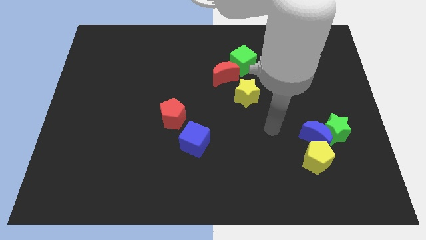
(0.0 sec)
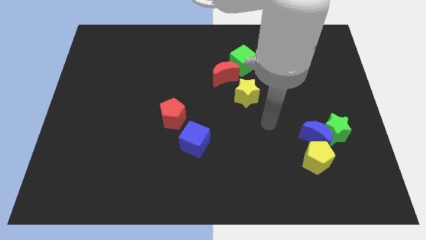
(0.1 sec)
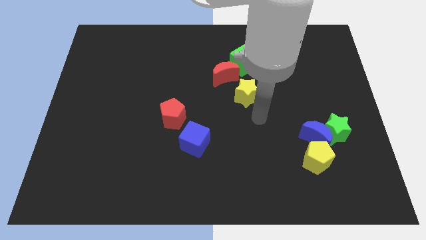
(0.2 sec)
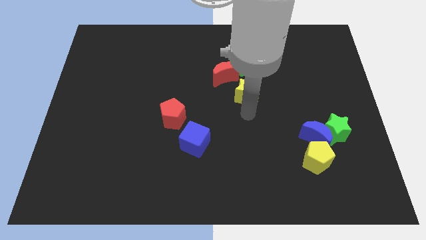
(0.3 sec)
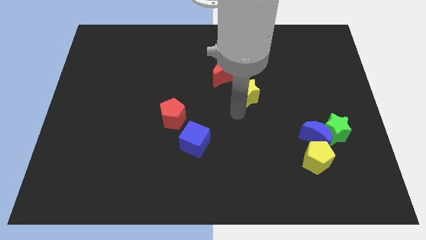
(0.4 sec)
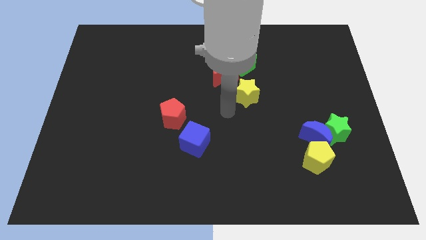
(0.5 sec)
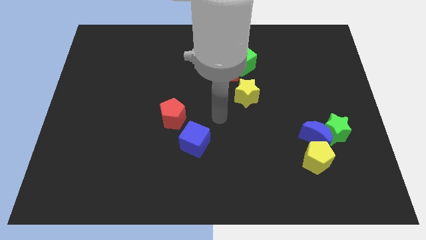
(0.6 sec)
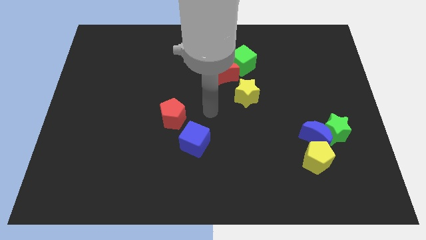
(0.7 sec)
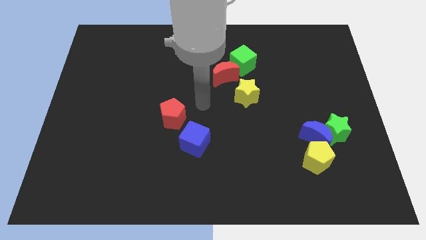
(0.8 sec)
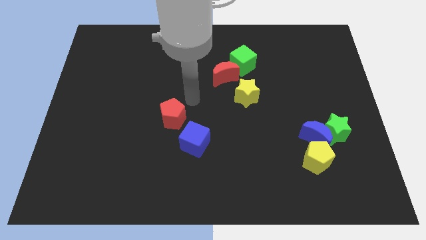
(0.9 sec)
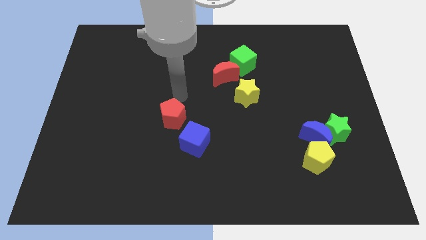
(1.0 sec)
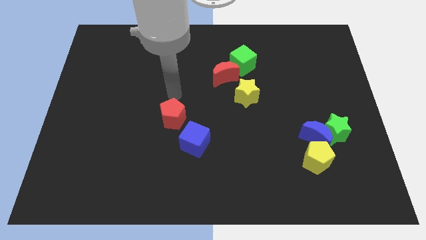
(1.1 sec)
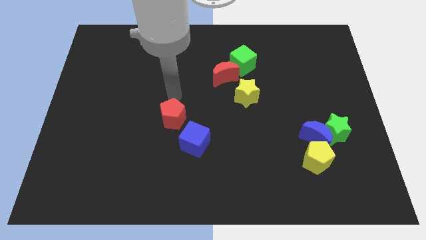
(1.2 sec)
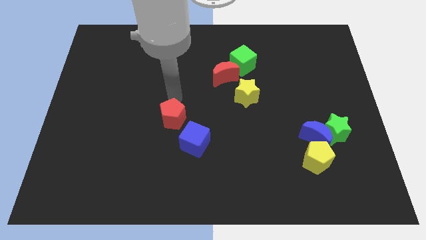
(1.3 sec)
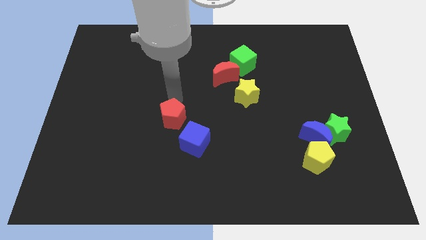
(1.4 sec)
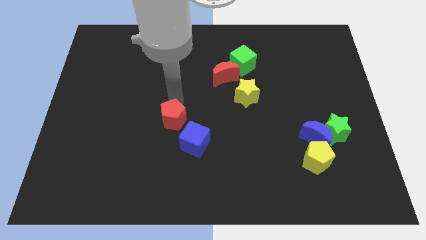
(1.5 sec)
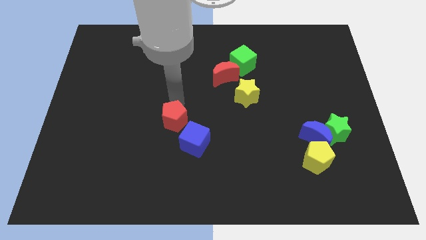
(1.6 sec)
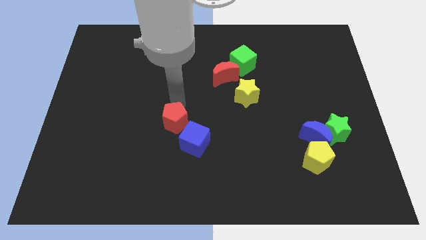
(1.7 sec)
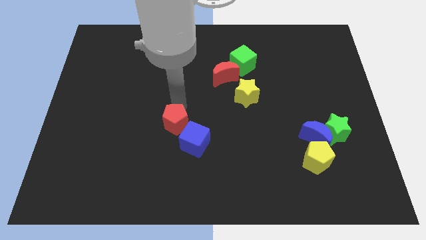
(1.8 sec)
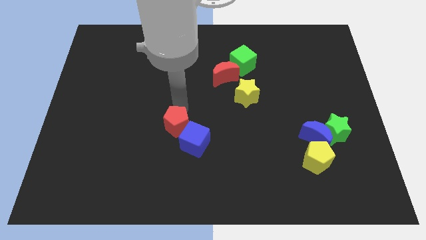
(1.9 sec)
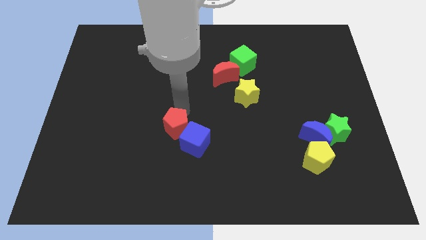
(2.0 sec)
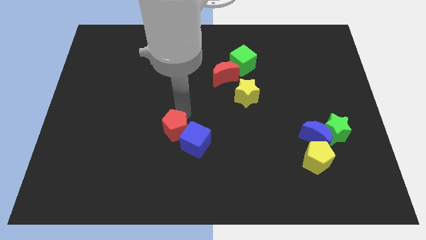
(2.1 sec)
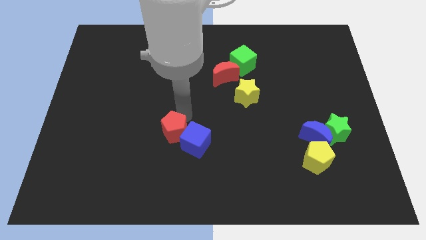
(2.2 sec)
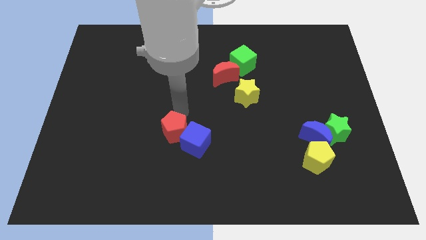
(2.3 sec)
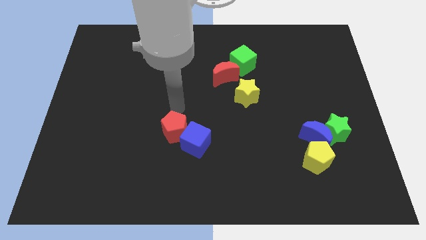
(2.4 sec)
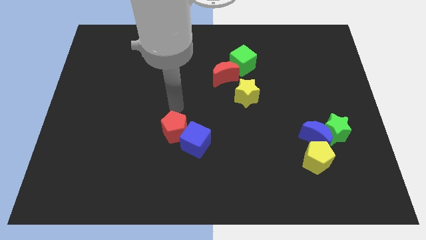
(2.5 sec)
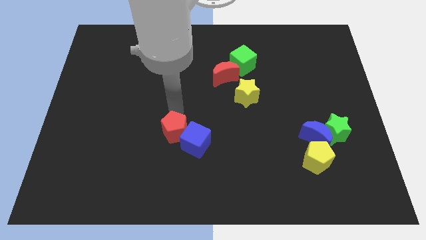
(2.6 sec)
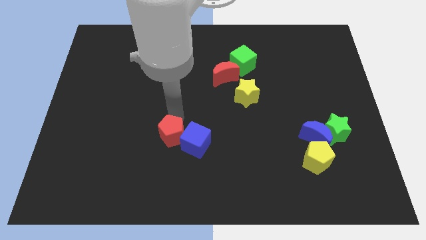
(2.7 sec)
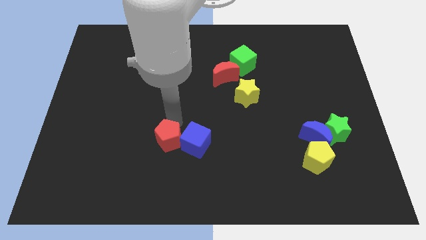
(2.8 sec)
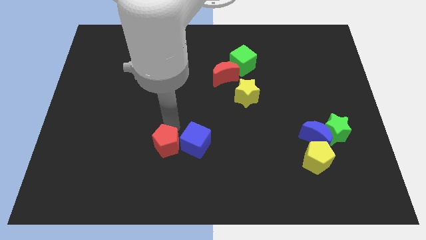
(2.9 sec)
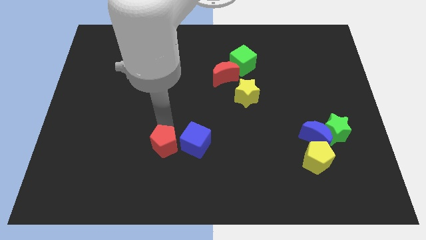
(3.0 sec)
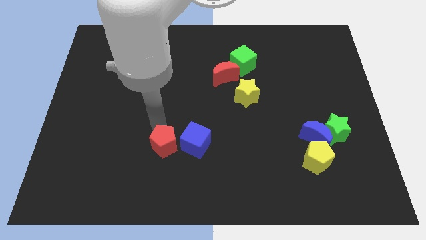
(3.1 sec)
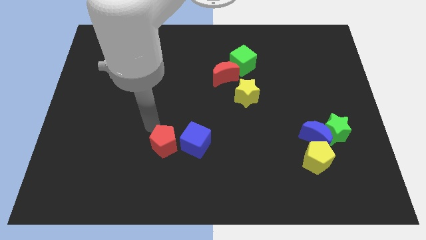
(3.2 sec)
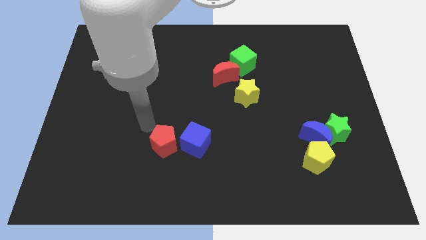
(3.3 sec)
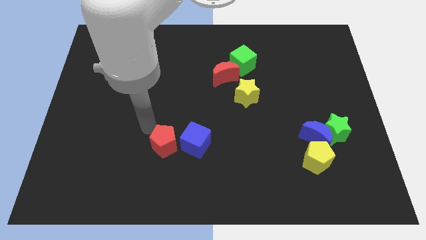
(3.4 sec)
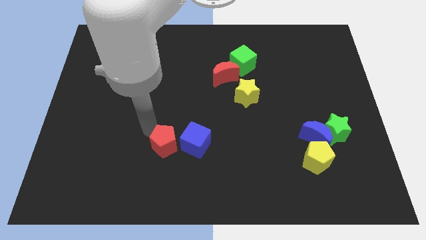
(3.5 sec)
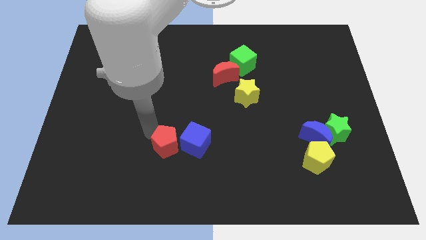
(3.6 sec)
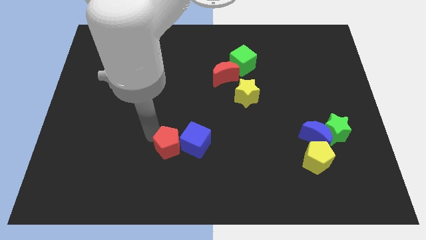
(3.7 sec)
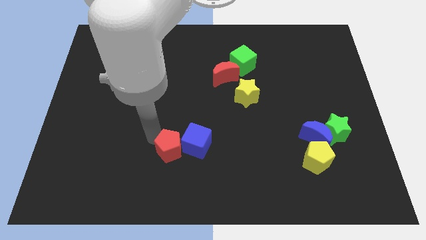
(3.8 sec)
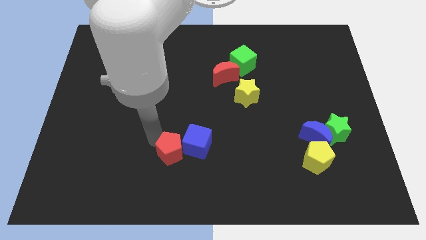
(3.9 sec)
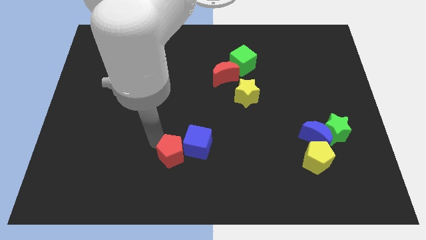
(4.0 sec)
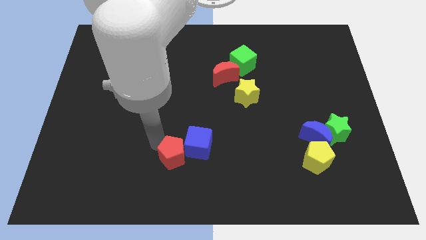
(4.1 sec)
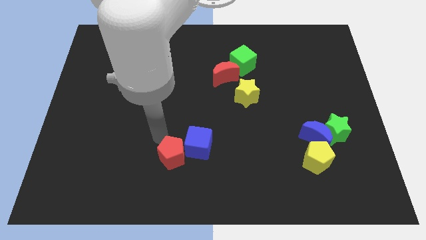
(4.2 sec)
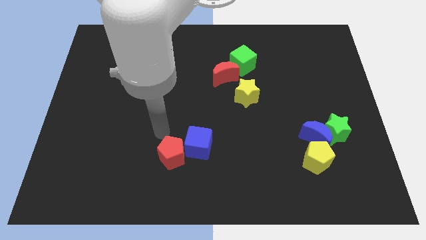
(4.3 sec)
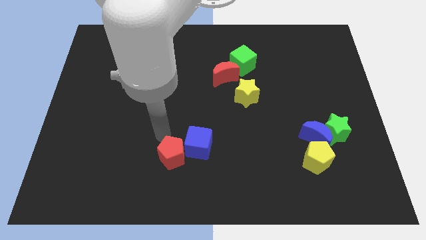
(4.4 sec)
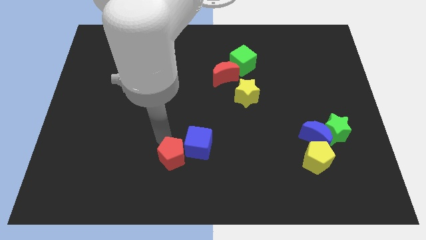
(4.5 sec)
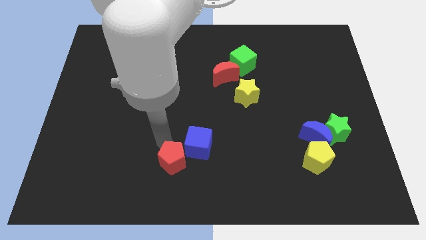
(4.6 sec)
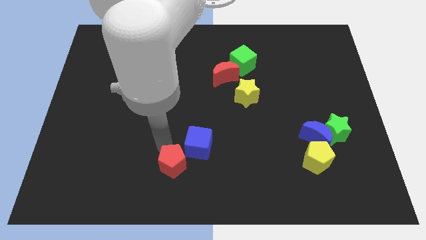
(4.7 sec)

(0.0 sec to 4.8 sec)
slide the red pentagon to the bottom side

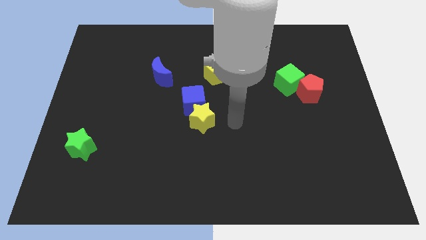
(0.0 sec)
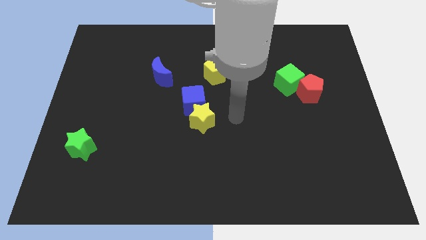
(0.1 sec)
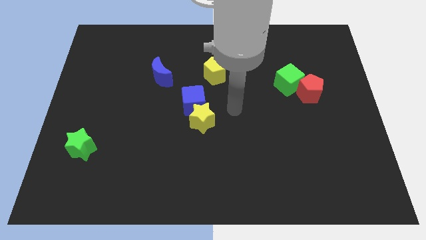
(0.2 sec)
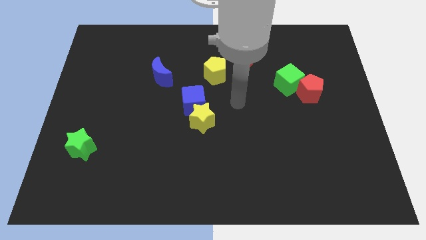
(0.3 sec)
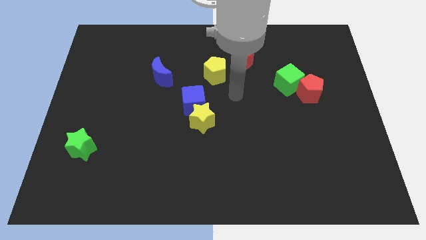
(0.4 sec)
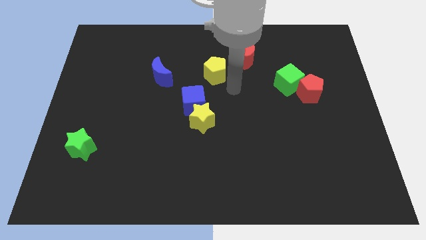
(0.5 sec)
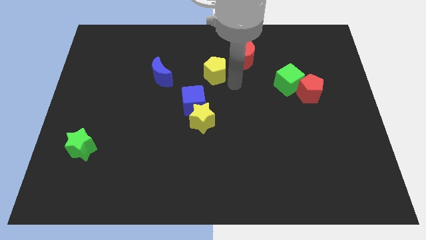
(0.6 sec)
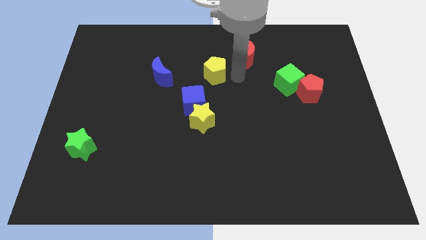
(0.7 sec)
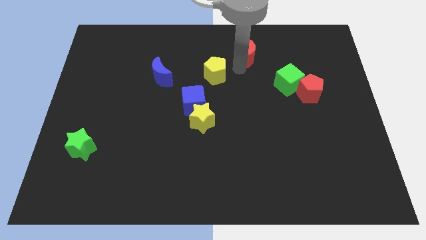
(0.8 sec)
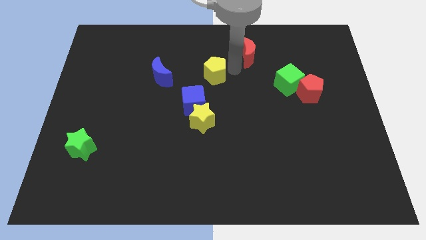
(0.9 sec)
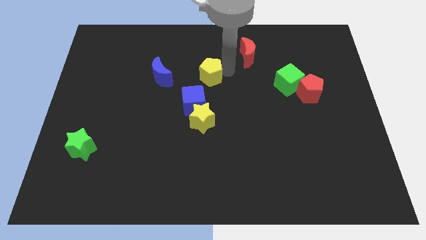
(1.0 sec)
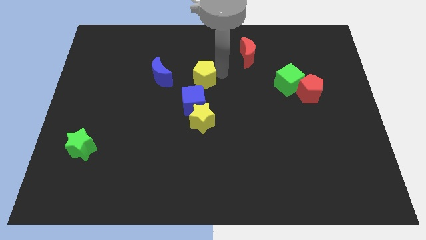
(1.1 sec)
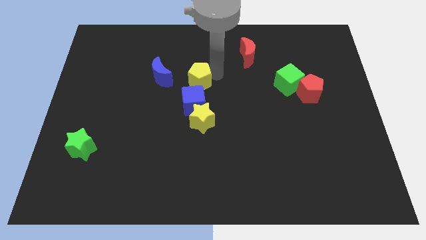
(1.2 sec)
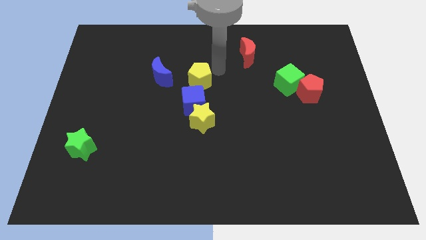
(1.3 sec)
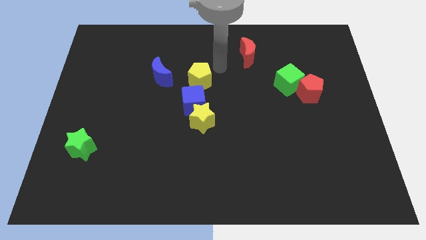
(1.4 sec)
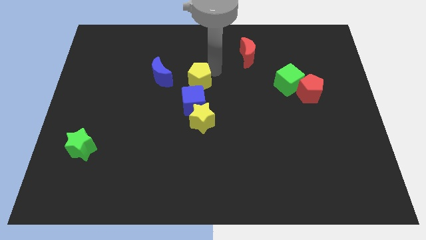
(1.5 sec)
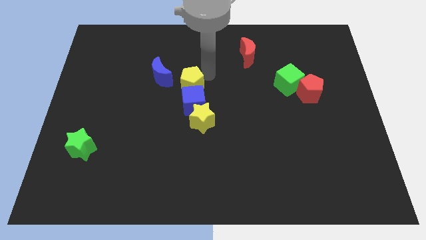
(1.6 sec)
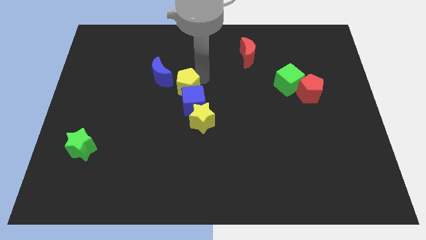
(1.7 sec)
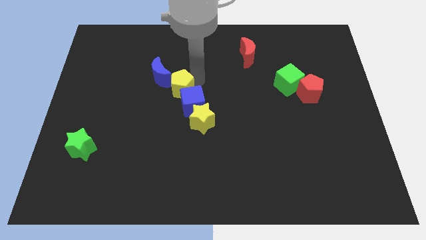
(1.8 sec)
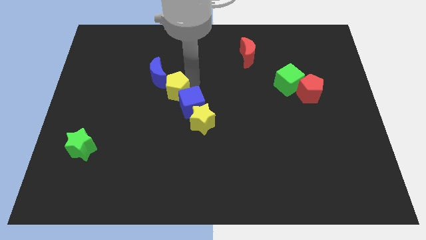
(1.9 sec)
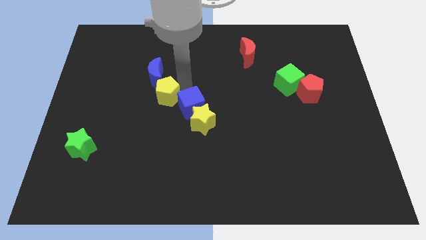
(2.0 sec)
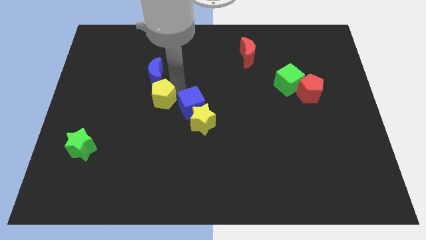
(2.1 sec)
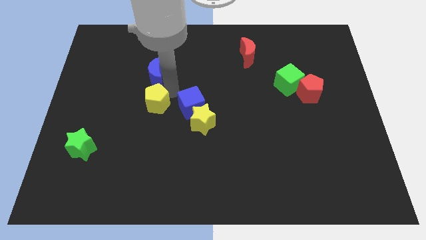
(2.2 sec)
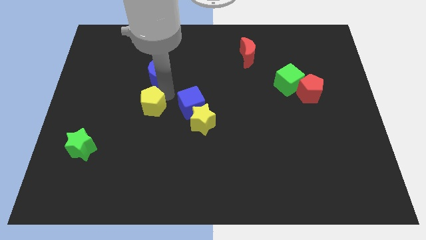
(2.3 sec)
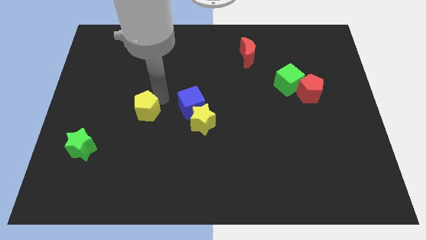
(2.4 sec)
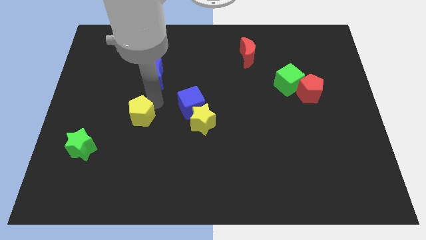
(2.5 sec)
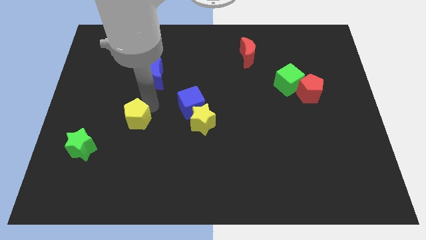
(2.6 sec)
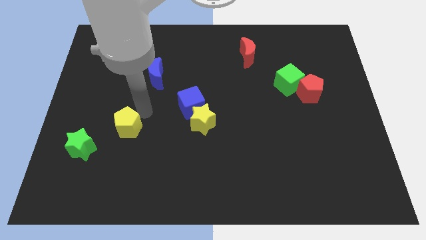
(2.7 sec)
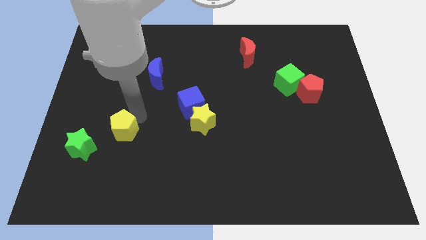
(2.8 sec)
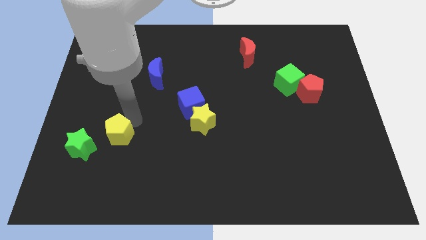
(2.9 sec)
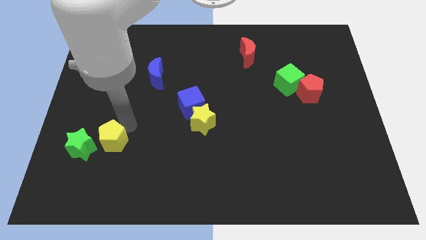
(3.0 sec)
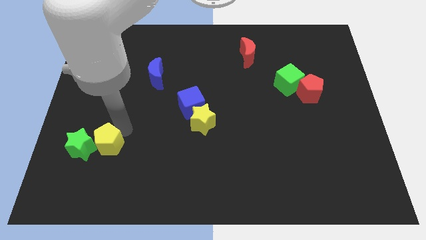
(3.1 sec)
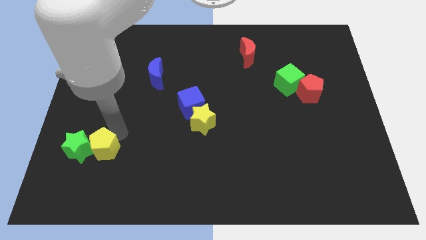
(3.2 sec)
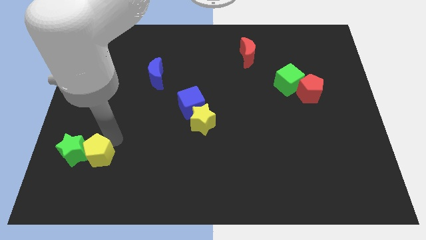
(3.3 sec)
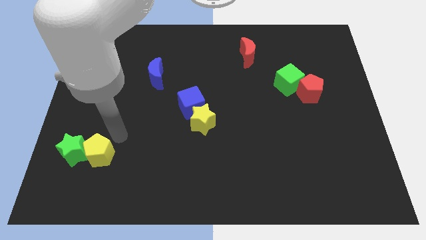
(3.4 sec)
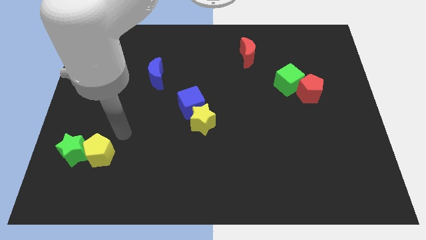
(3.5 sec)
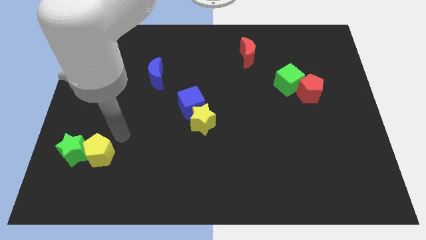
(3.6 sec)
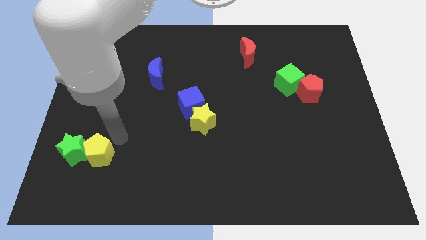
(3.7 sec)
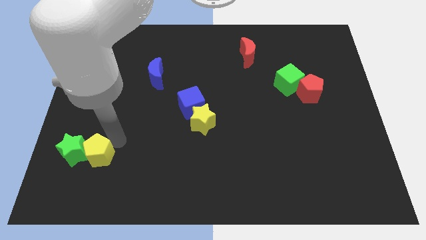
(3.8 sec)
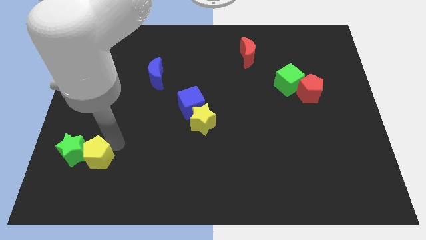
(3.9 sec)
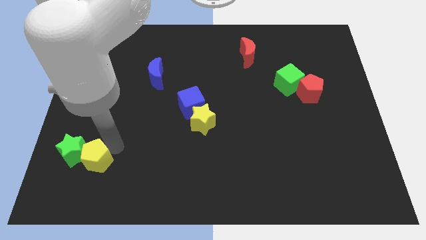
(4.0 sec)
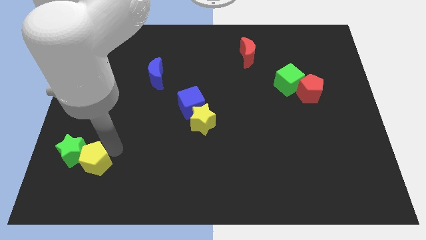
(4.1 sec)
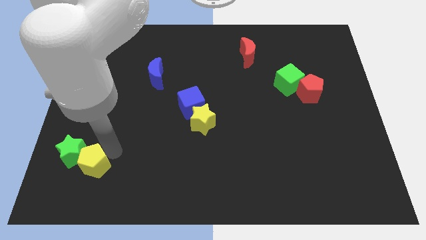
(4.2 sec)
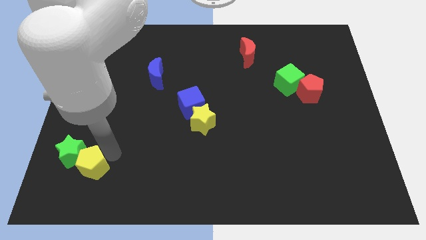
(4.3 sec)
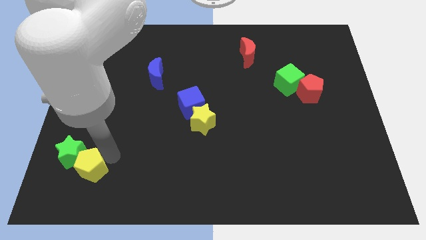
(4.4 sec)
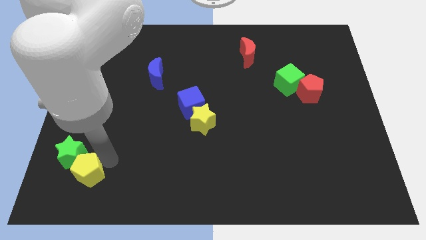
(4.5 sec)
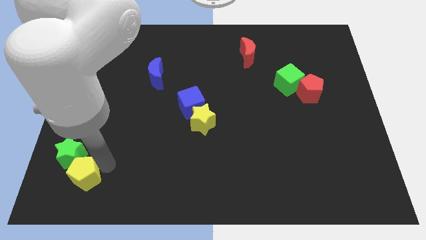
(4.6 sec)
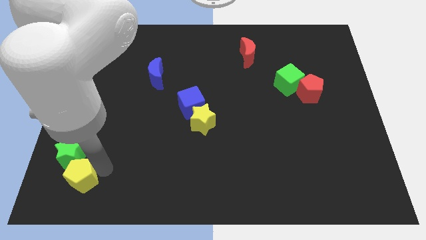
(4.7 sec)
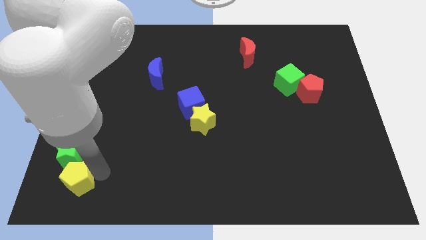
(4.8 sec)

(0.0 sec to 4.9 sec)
put the yellow pentagon to the bottom left corner
